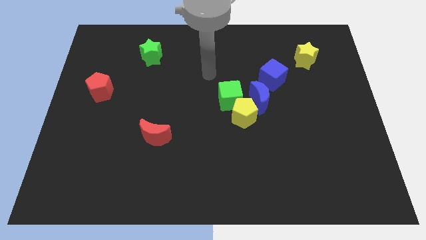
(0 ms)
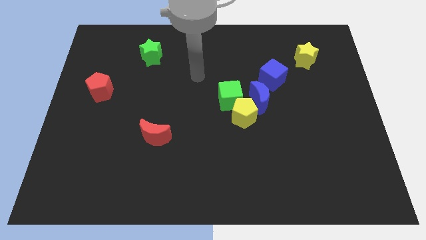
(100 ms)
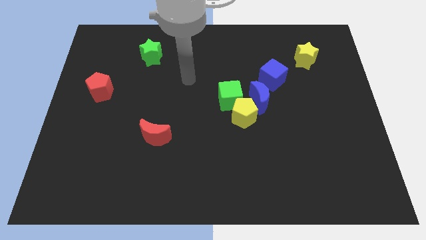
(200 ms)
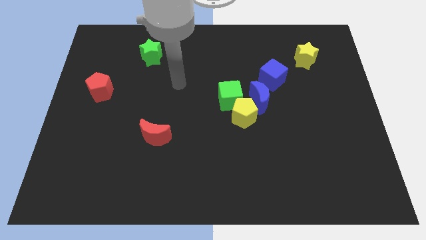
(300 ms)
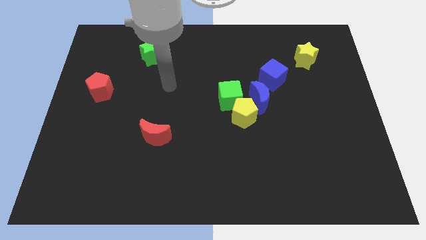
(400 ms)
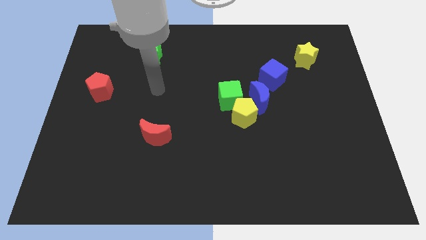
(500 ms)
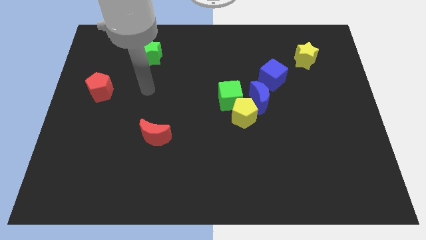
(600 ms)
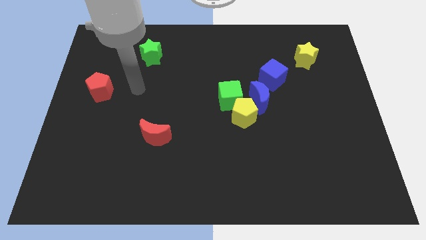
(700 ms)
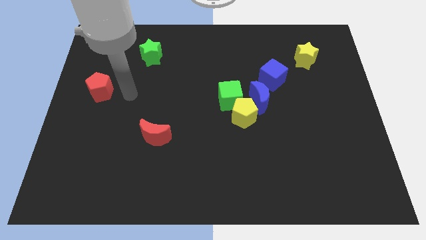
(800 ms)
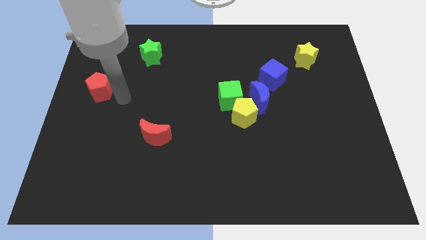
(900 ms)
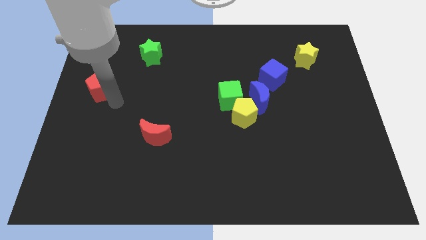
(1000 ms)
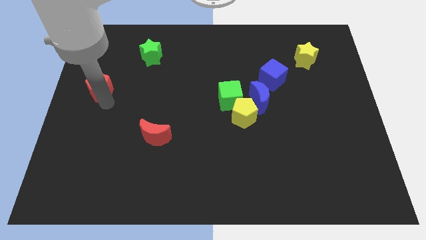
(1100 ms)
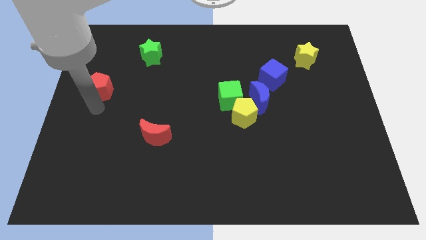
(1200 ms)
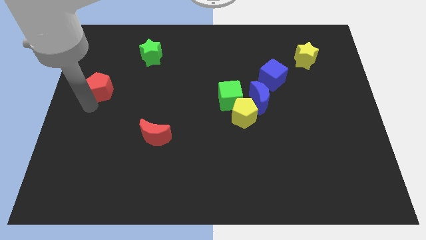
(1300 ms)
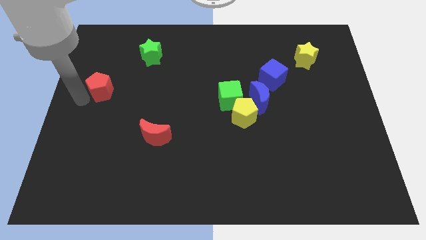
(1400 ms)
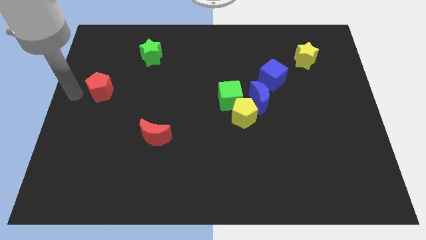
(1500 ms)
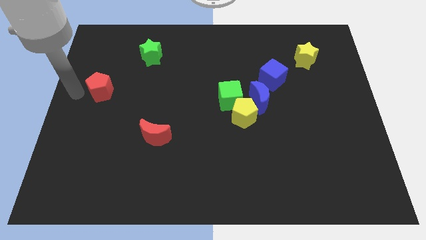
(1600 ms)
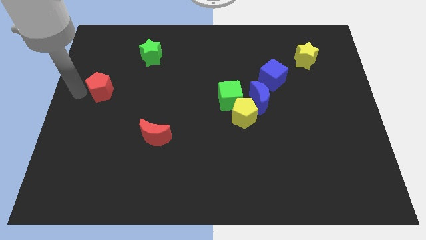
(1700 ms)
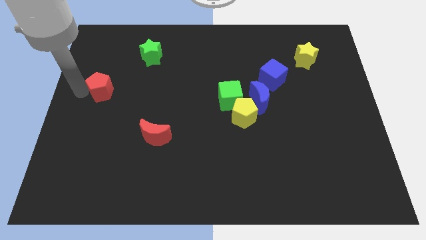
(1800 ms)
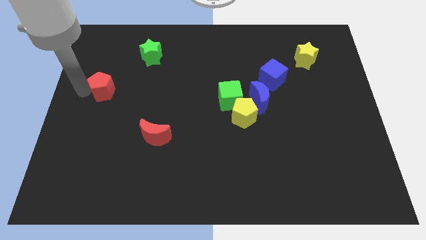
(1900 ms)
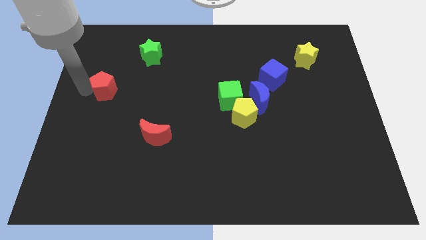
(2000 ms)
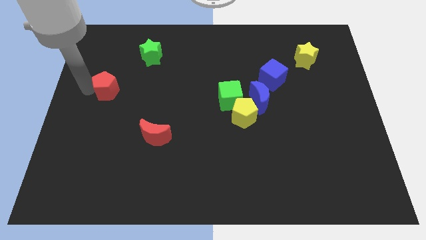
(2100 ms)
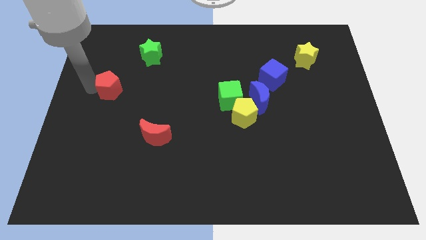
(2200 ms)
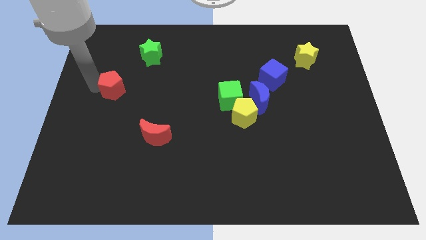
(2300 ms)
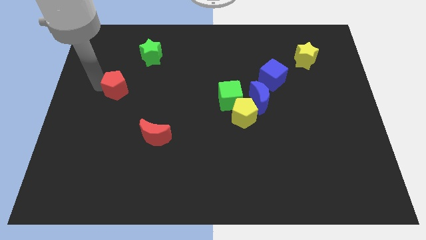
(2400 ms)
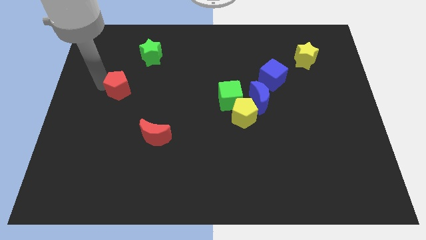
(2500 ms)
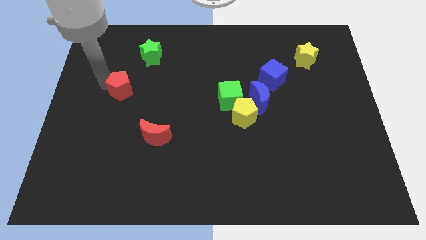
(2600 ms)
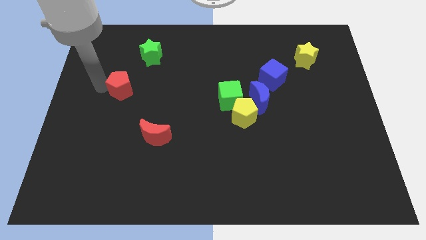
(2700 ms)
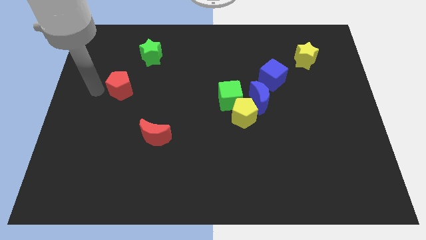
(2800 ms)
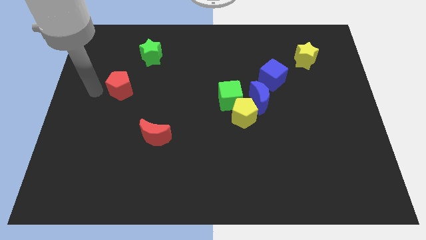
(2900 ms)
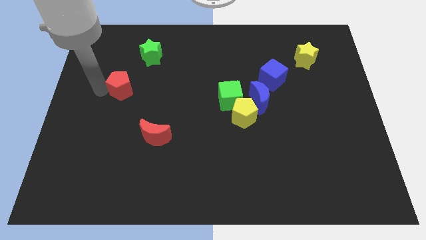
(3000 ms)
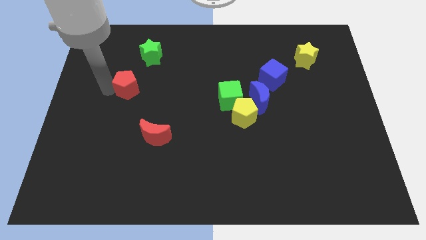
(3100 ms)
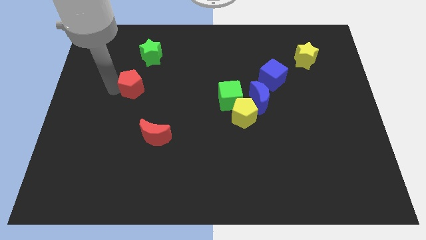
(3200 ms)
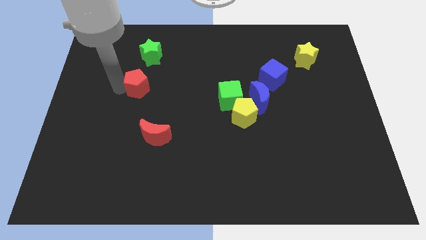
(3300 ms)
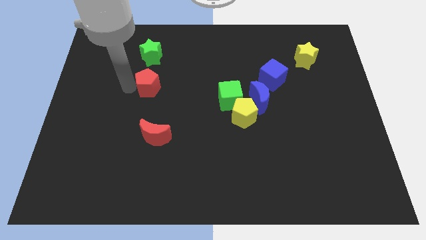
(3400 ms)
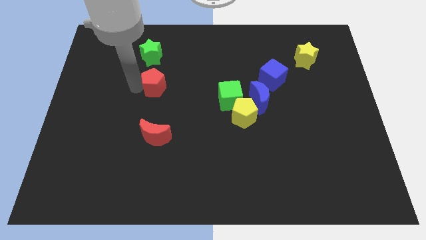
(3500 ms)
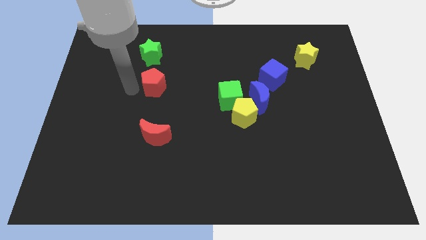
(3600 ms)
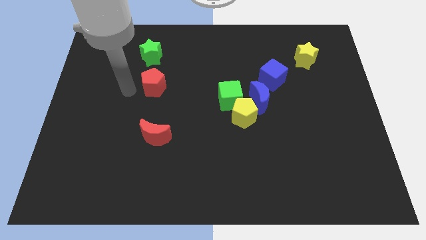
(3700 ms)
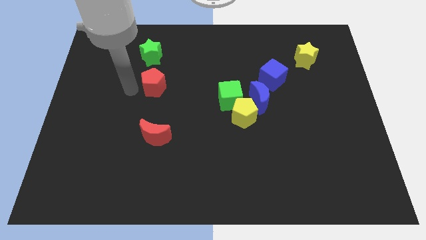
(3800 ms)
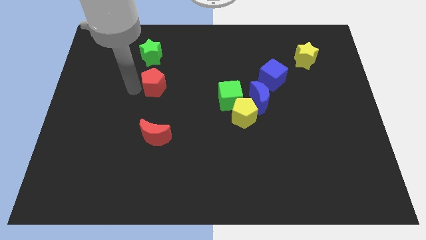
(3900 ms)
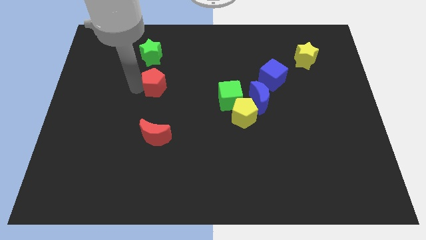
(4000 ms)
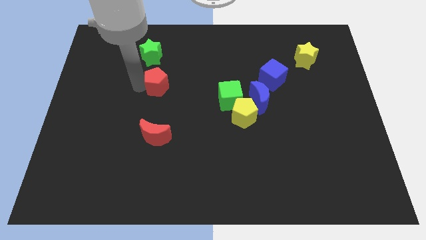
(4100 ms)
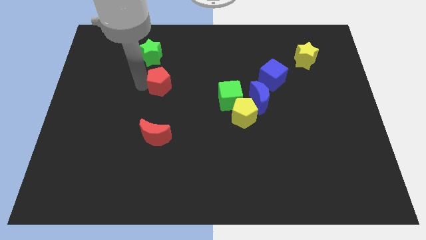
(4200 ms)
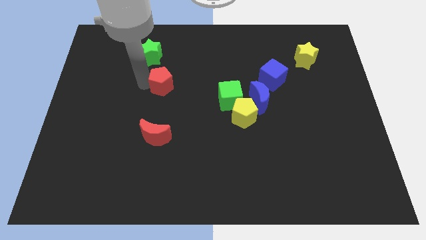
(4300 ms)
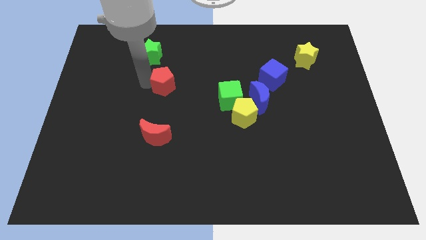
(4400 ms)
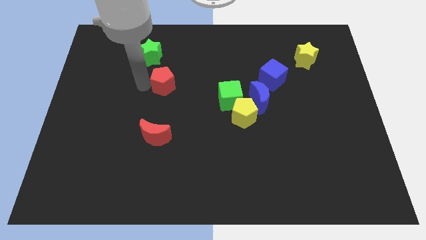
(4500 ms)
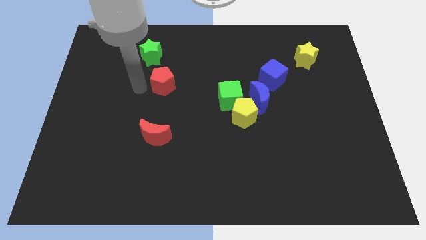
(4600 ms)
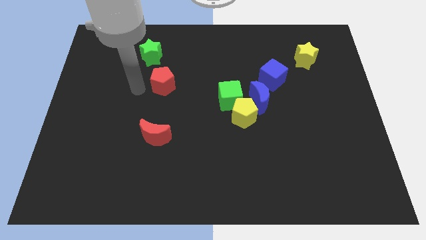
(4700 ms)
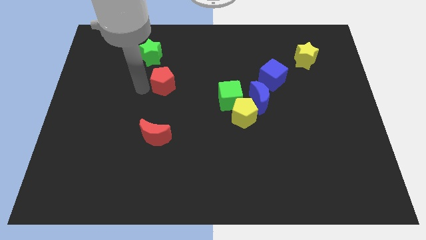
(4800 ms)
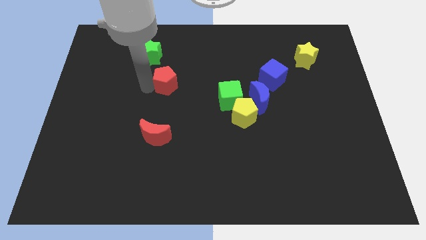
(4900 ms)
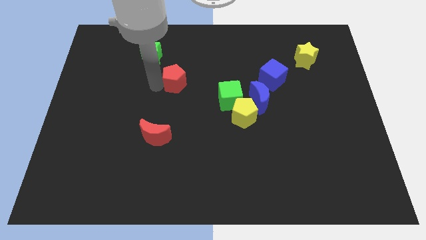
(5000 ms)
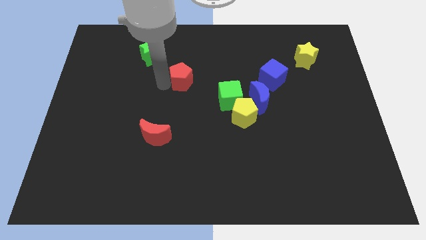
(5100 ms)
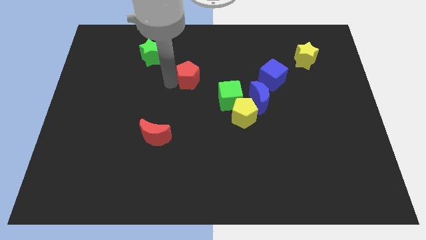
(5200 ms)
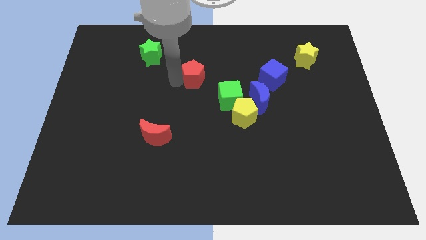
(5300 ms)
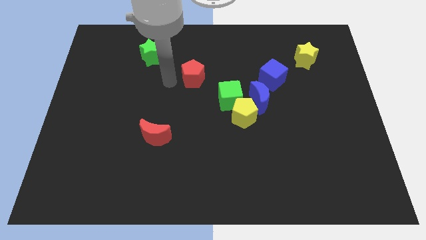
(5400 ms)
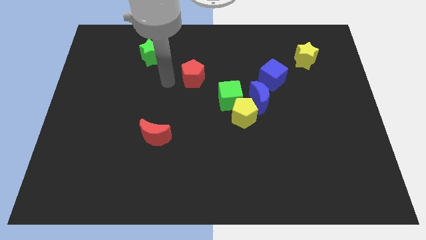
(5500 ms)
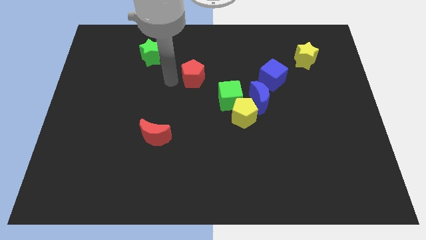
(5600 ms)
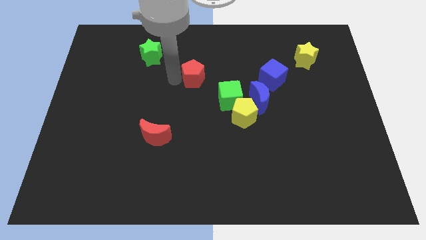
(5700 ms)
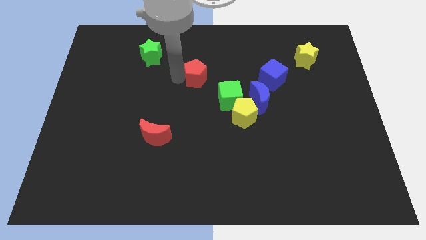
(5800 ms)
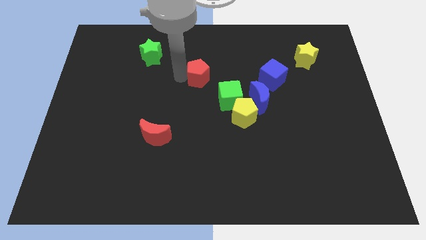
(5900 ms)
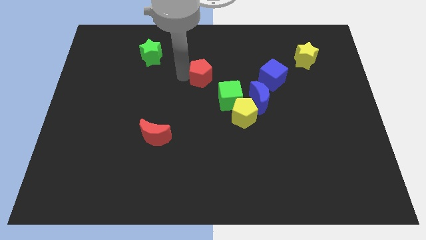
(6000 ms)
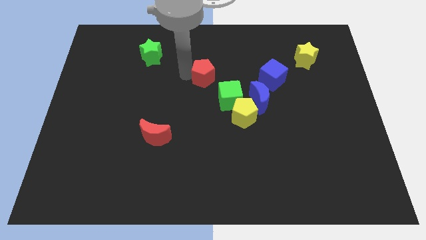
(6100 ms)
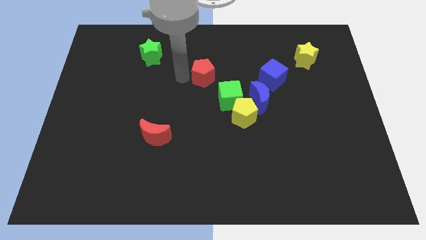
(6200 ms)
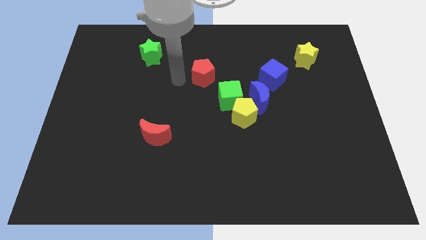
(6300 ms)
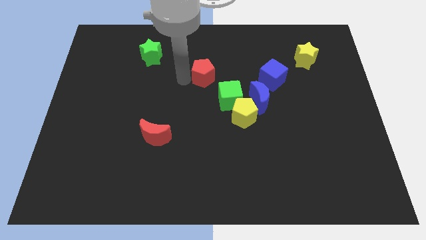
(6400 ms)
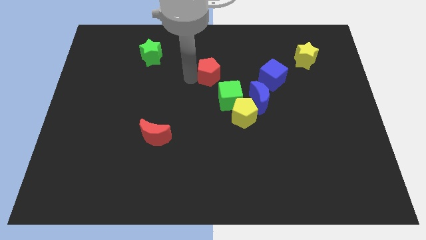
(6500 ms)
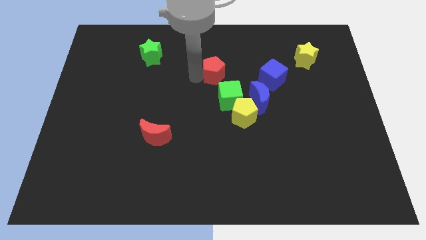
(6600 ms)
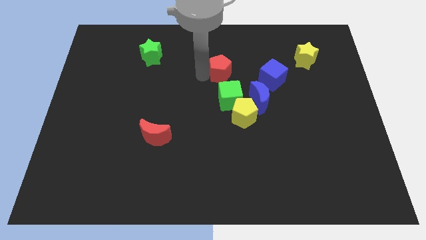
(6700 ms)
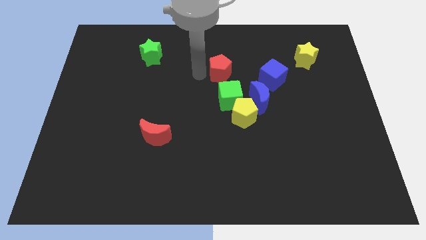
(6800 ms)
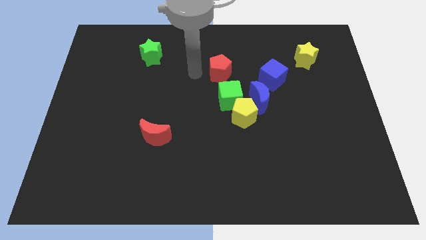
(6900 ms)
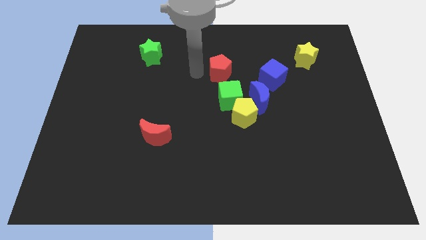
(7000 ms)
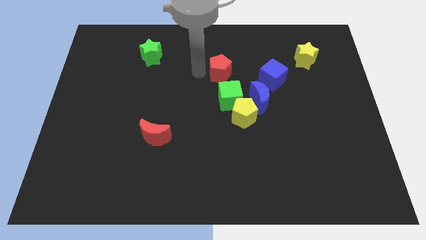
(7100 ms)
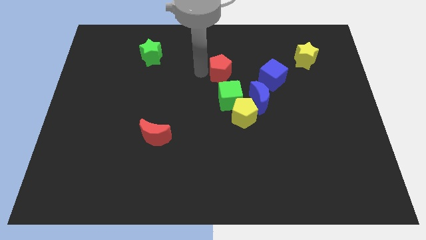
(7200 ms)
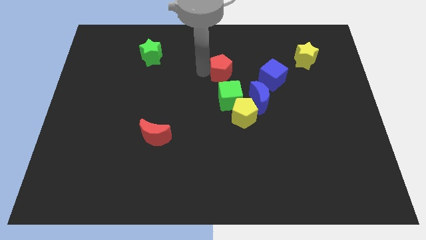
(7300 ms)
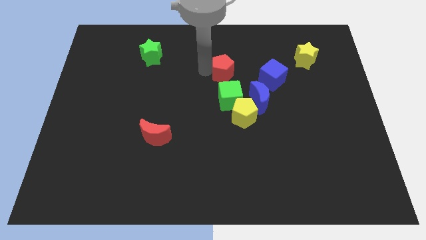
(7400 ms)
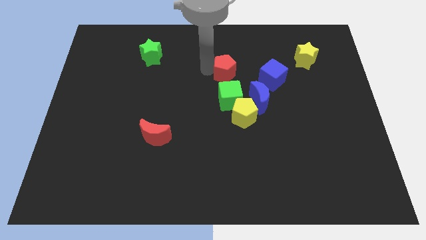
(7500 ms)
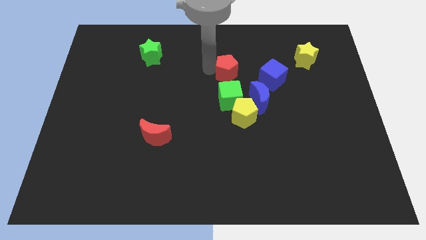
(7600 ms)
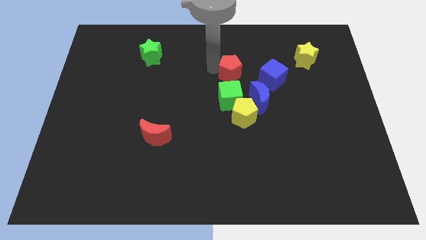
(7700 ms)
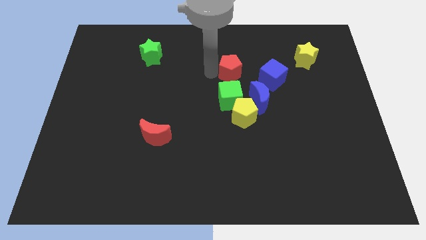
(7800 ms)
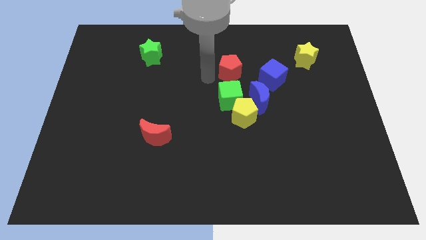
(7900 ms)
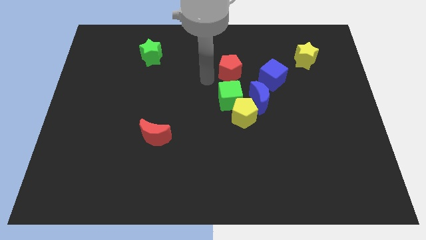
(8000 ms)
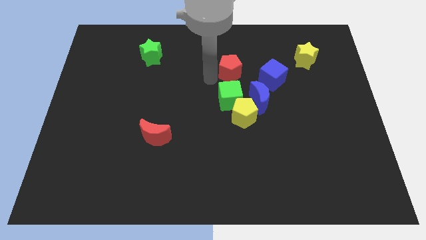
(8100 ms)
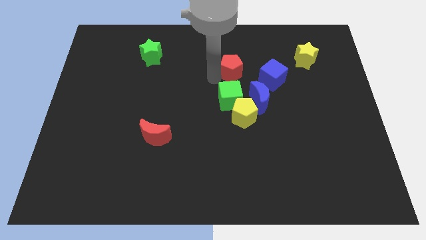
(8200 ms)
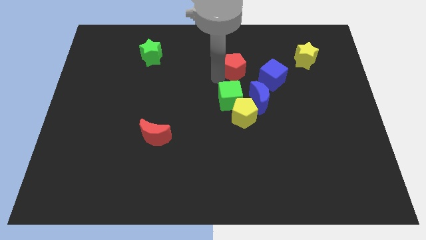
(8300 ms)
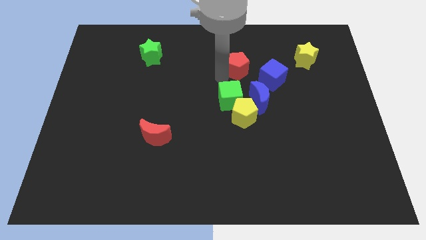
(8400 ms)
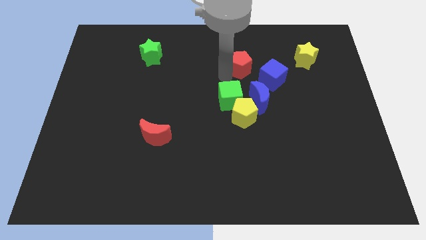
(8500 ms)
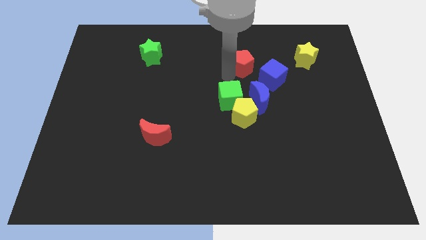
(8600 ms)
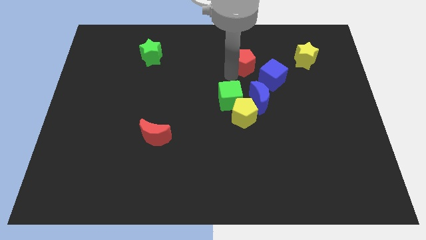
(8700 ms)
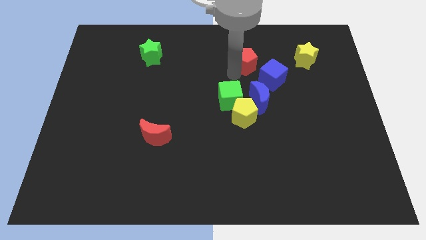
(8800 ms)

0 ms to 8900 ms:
put the red pentagon to the left of the yellow star
